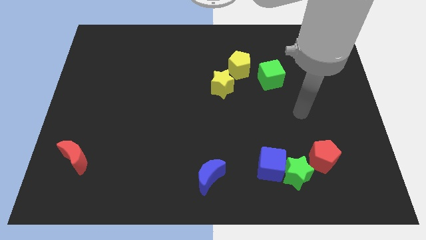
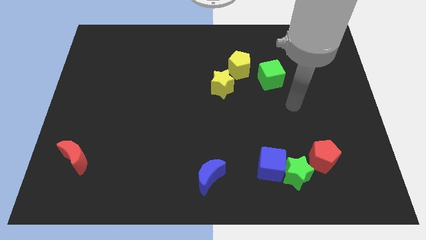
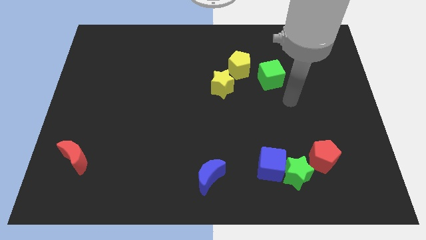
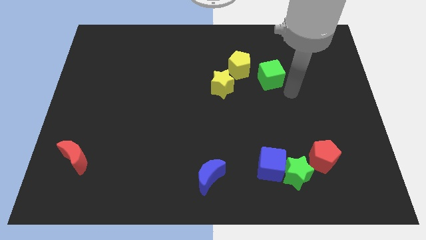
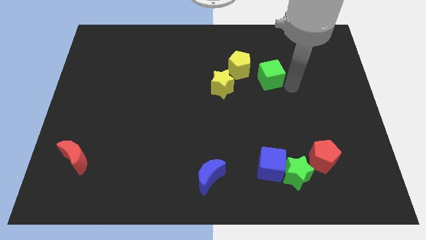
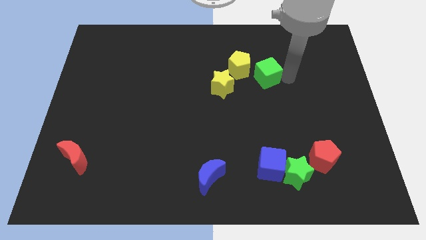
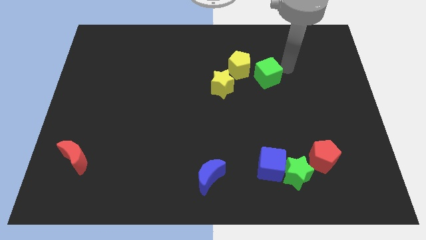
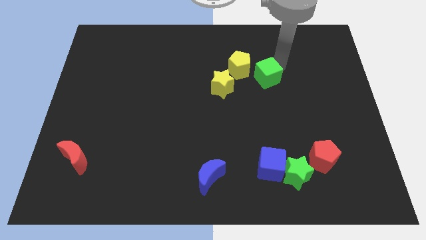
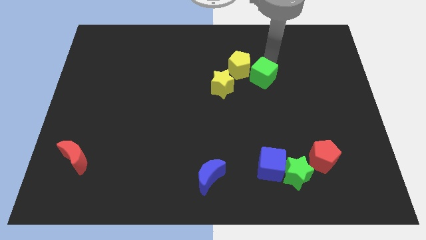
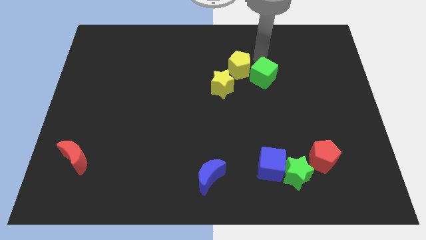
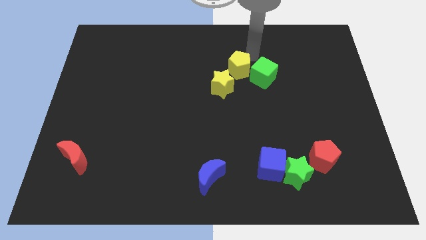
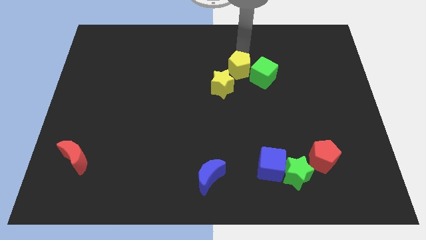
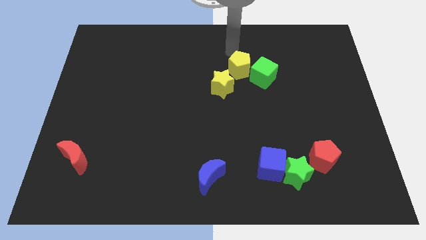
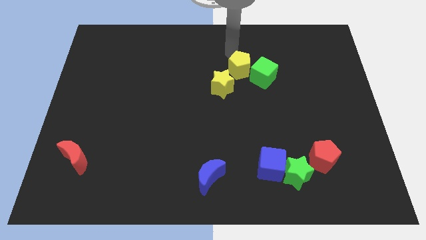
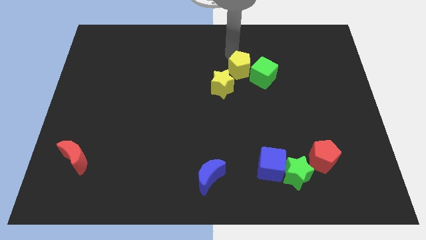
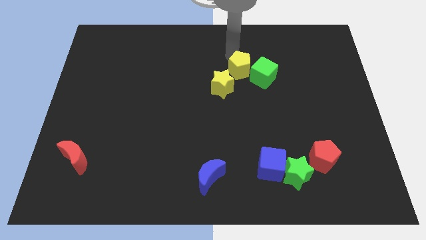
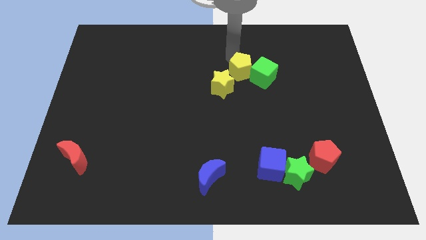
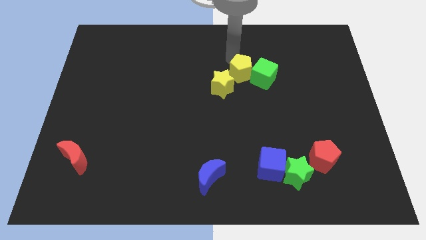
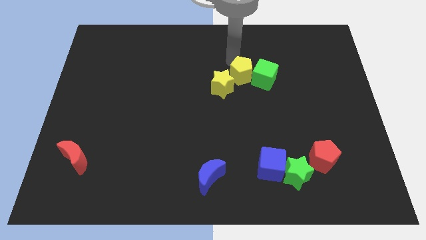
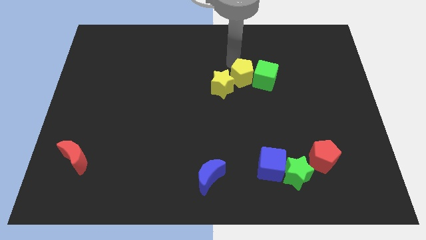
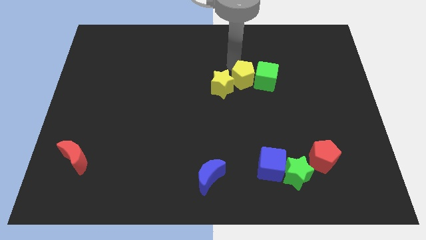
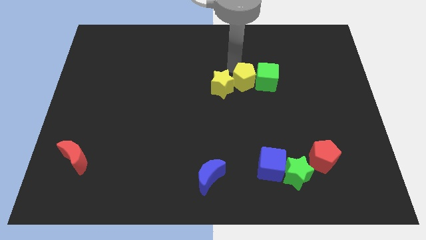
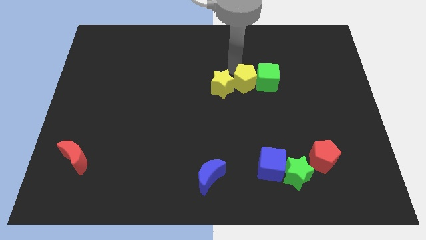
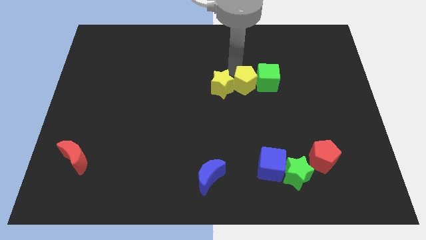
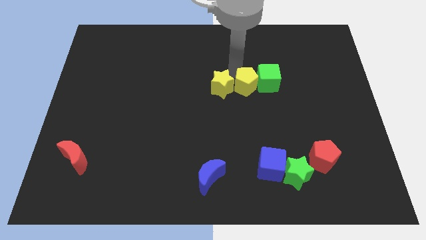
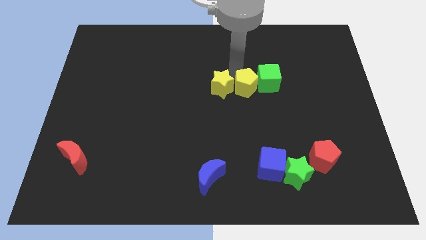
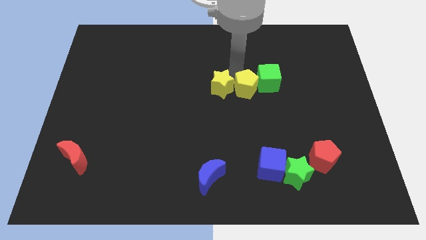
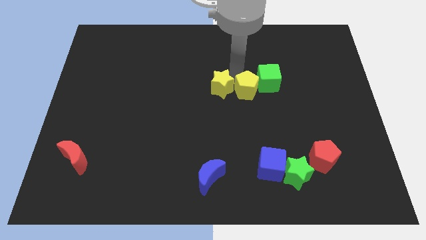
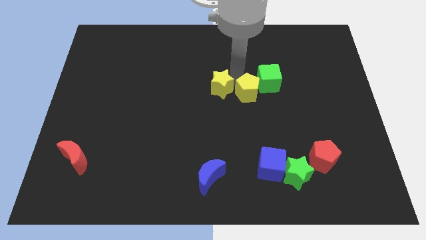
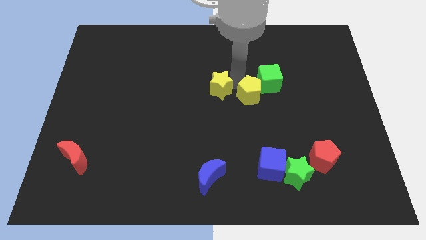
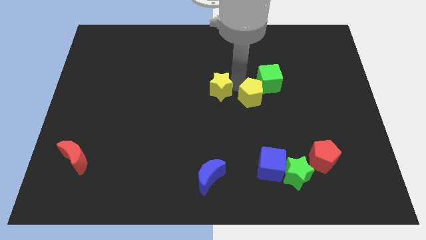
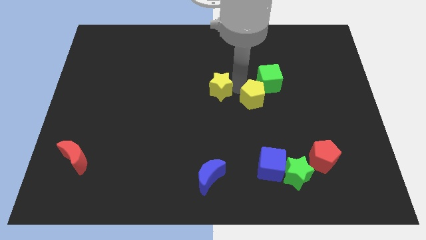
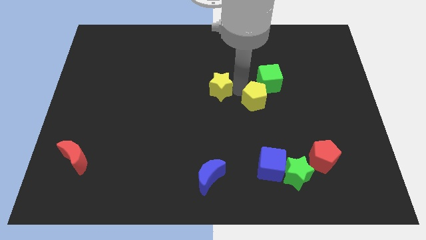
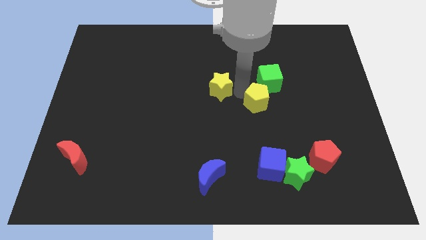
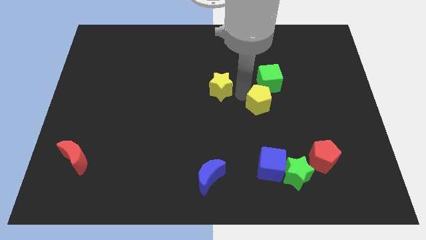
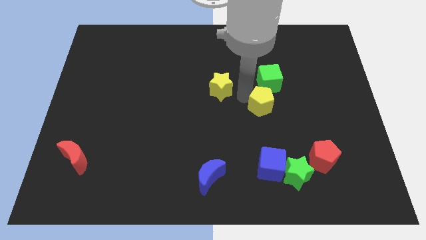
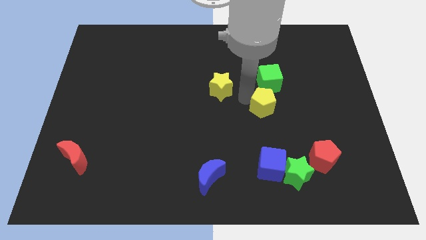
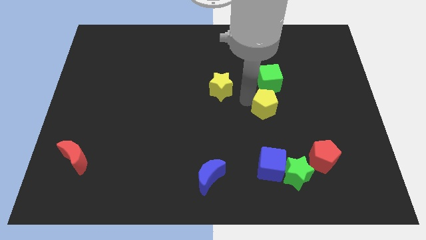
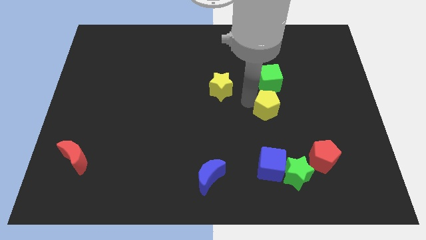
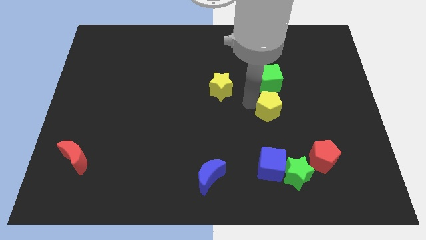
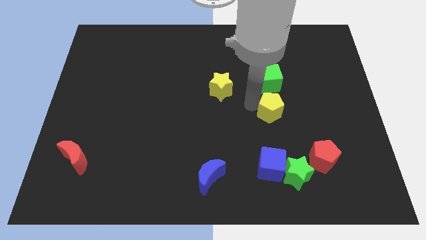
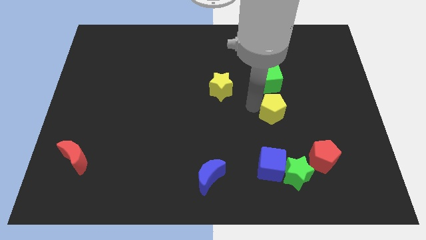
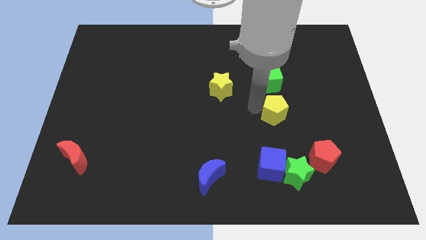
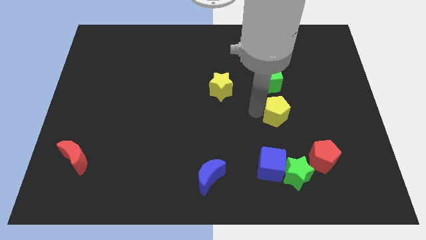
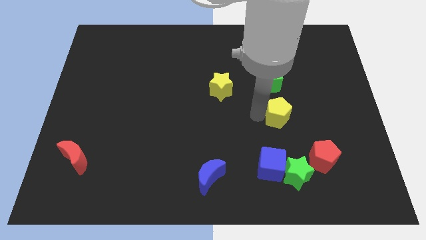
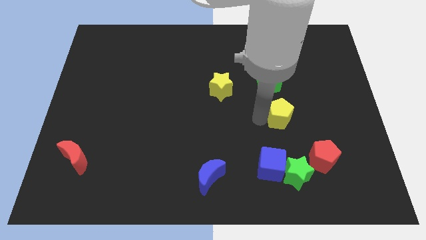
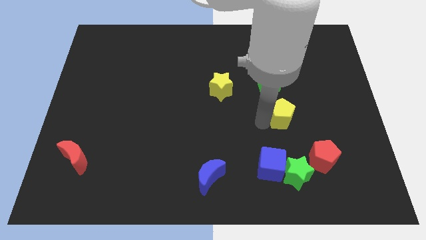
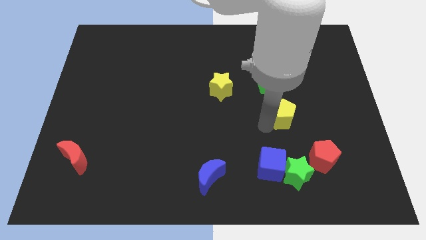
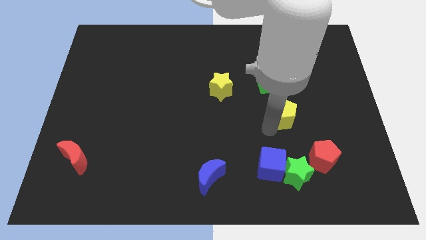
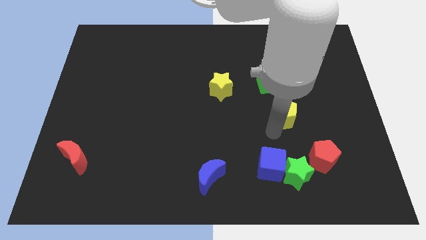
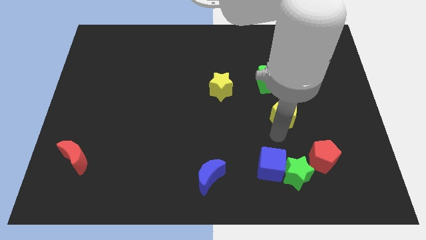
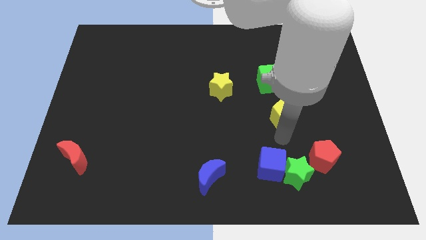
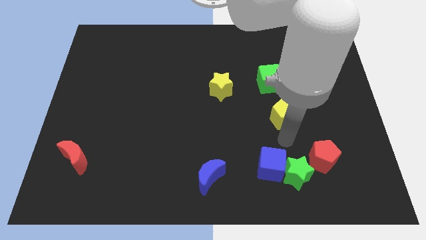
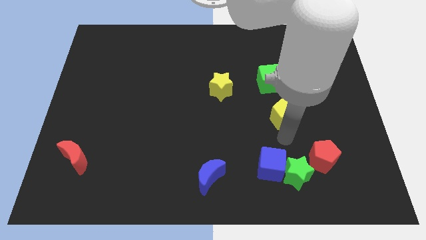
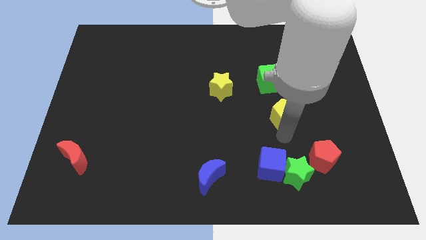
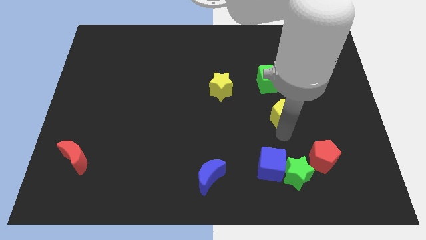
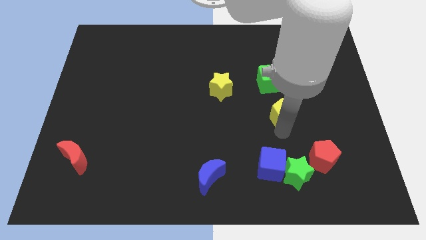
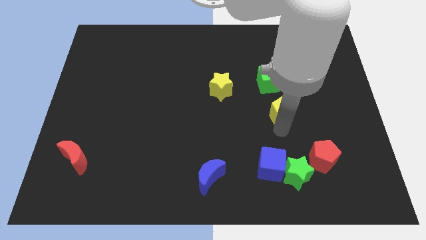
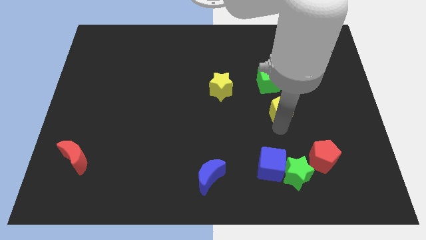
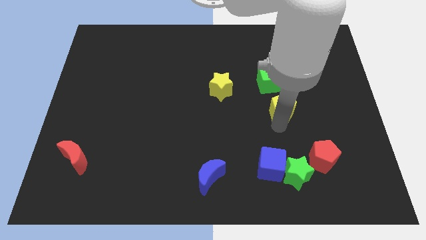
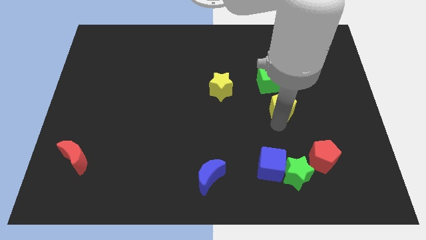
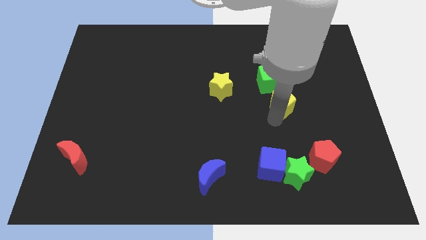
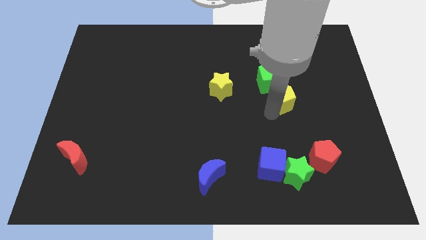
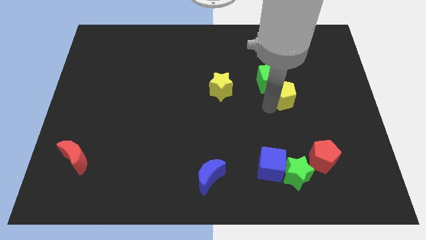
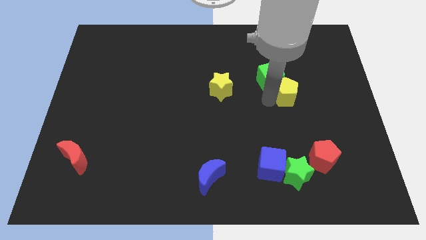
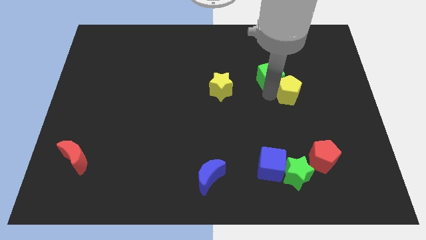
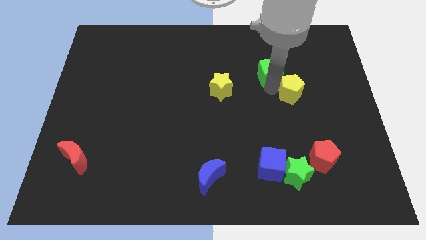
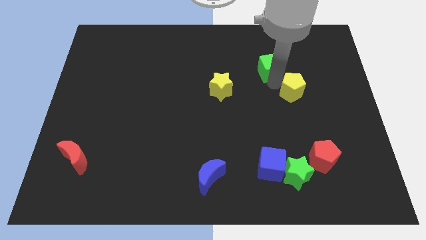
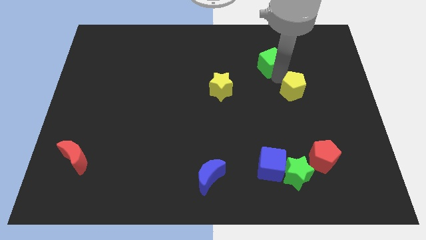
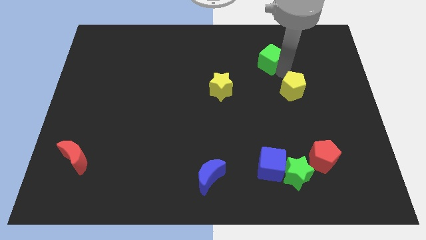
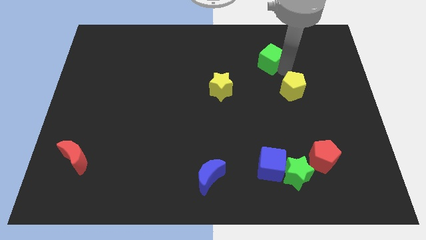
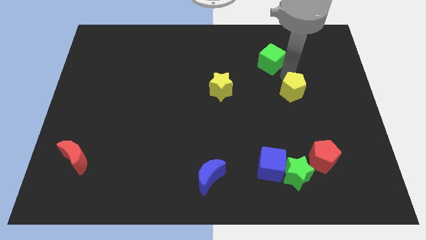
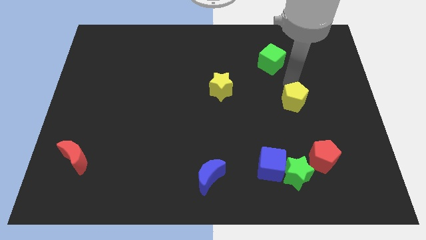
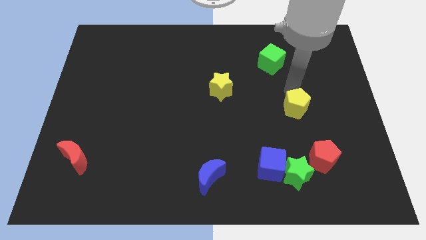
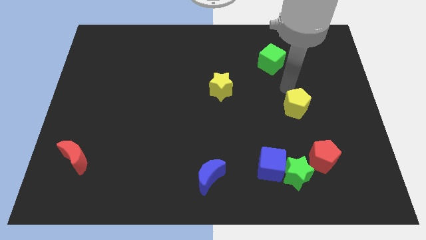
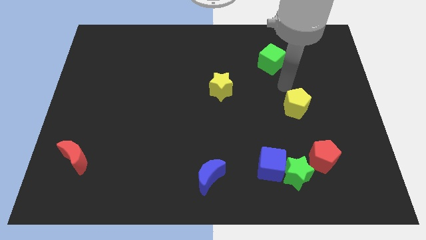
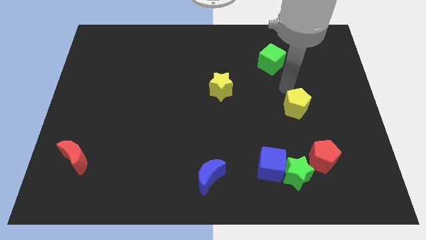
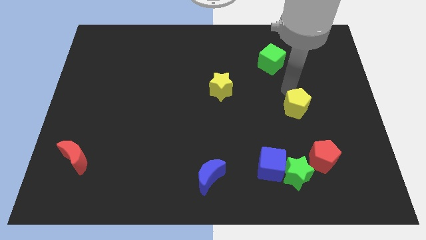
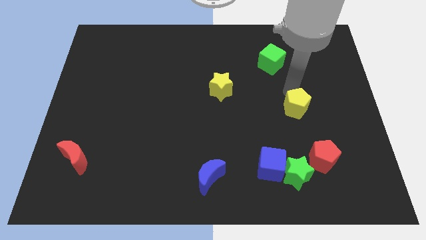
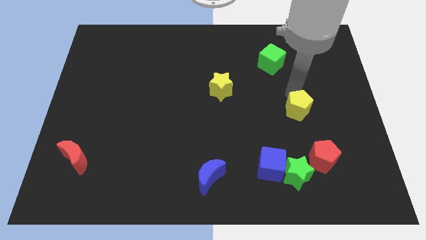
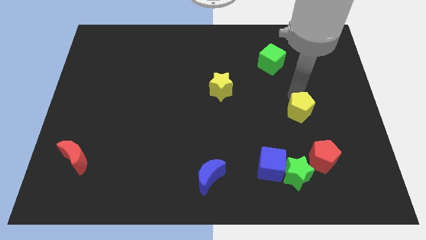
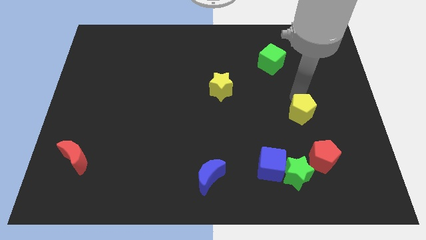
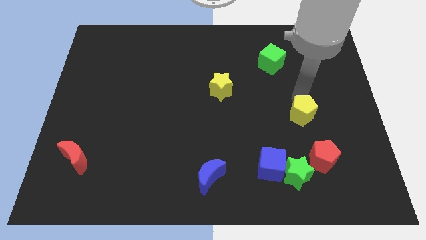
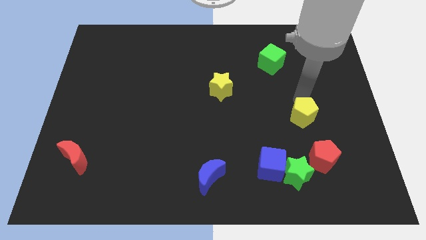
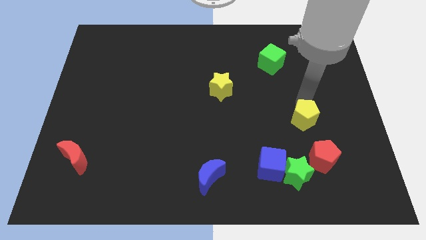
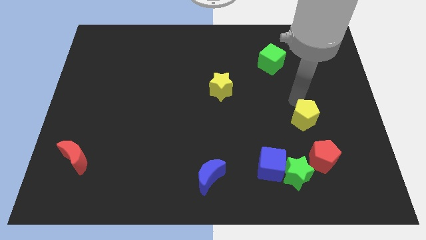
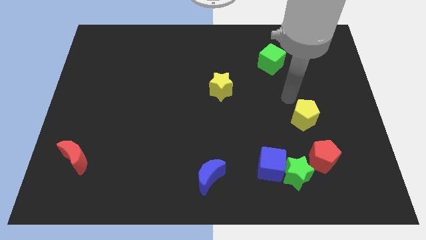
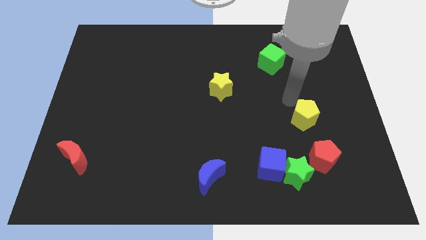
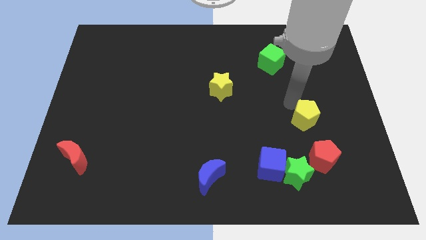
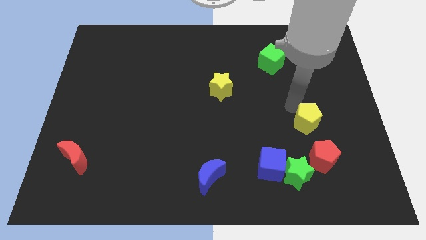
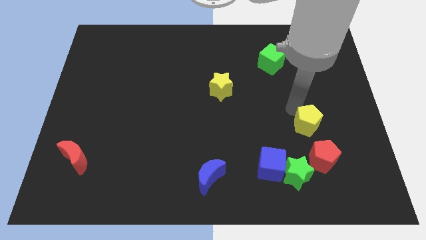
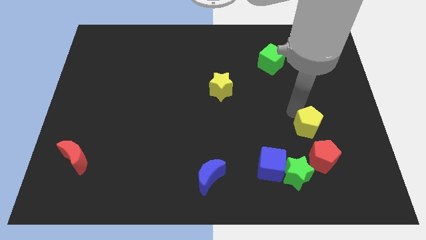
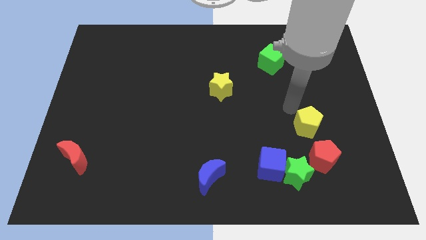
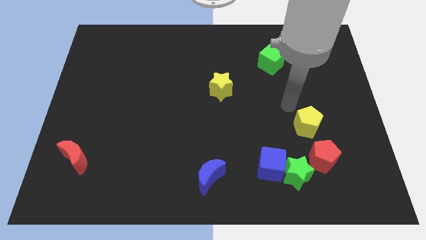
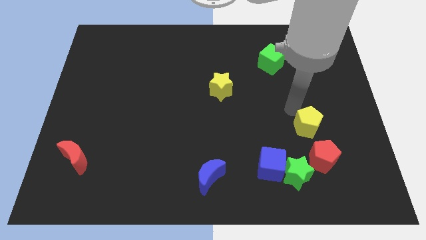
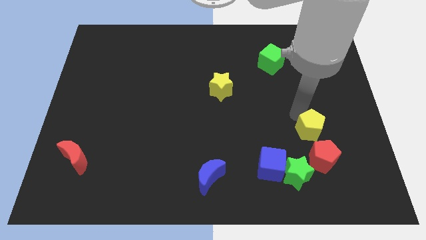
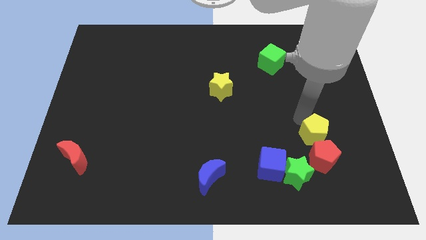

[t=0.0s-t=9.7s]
slide the yellow pentagon to the top right side of the green star
